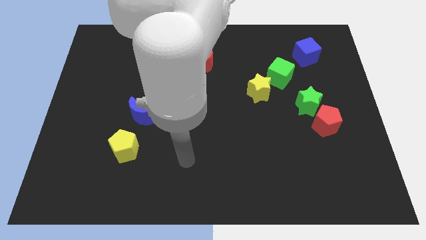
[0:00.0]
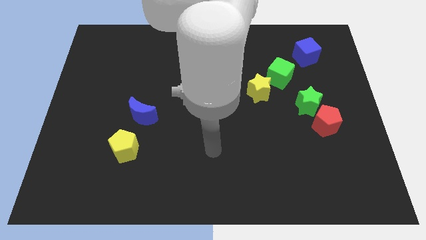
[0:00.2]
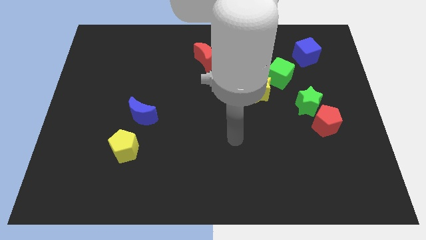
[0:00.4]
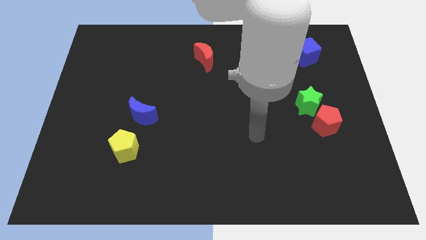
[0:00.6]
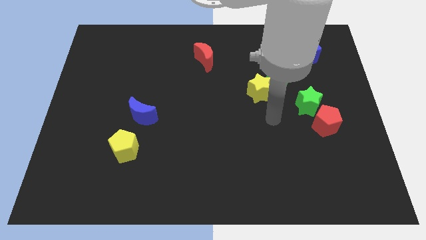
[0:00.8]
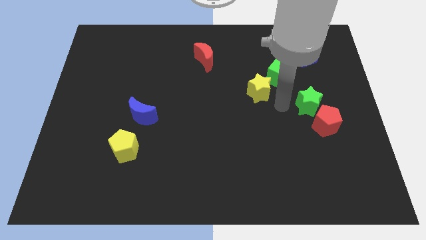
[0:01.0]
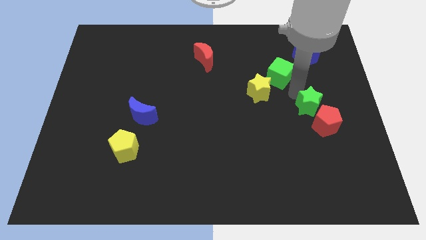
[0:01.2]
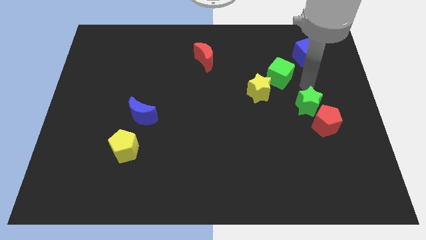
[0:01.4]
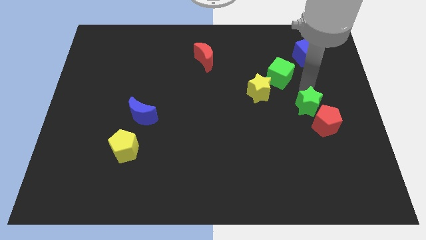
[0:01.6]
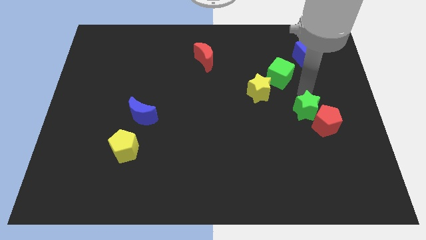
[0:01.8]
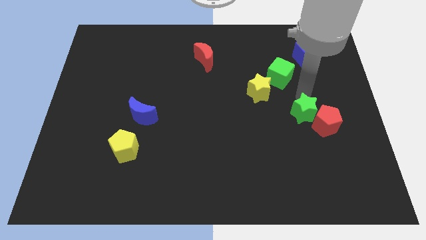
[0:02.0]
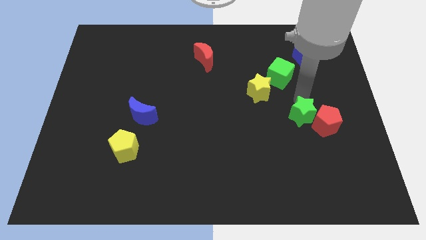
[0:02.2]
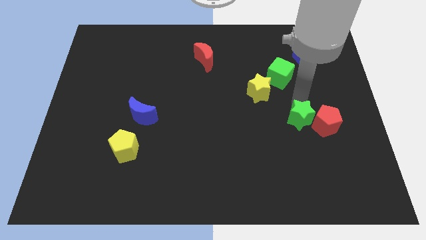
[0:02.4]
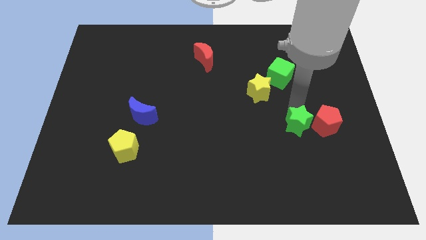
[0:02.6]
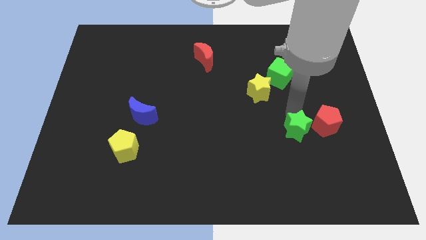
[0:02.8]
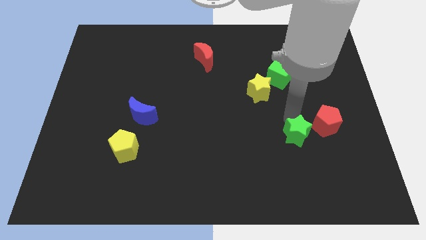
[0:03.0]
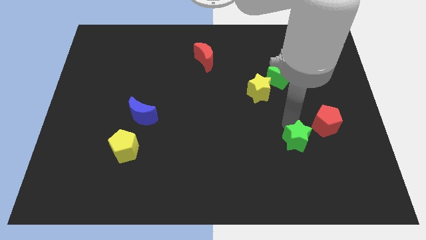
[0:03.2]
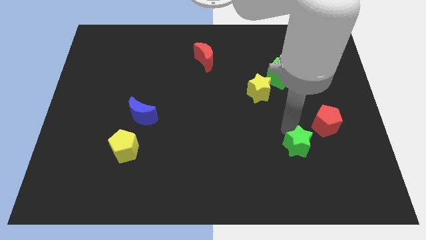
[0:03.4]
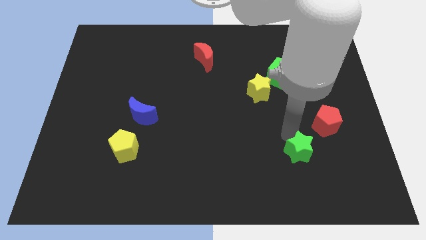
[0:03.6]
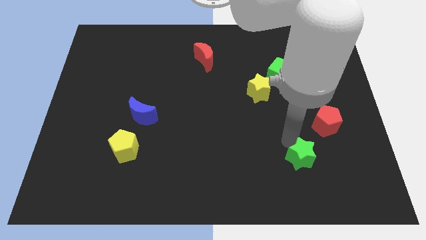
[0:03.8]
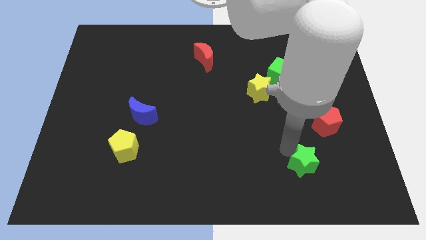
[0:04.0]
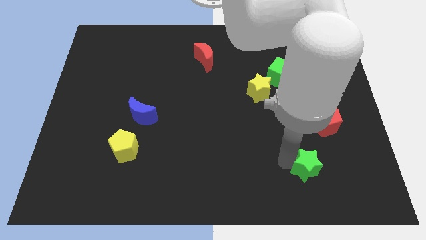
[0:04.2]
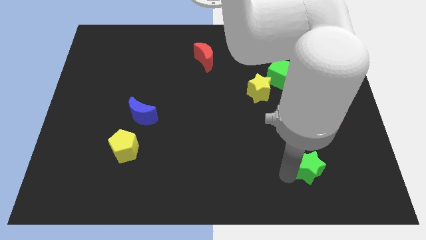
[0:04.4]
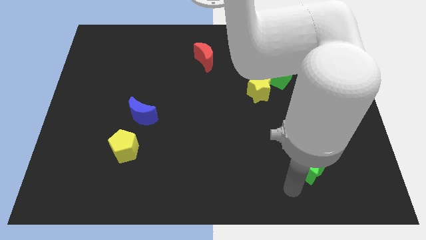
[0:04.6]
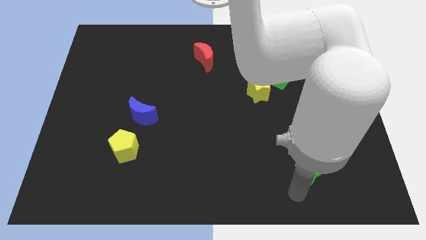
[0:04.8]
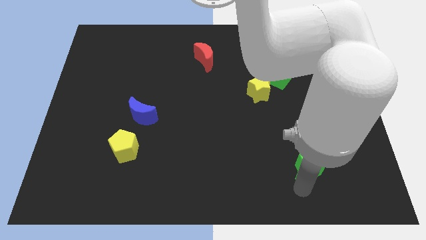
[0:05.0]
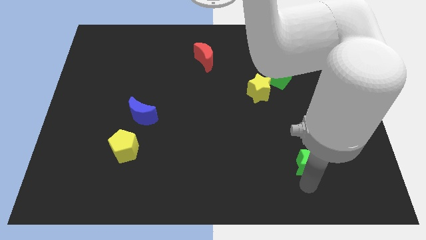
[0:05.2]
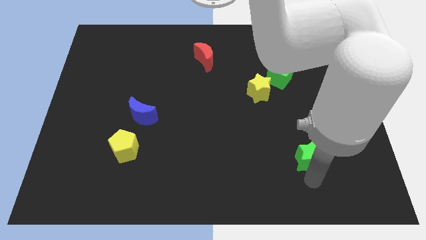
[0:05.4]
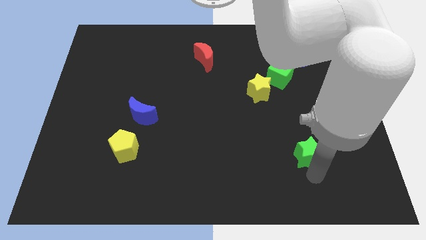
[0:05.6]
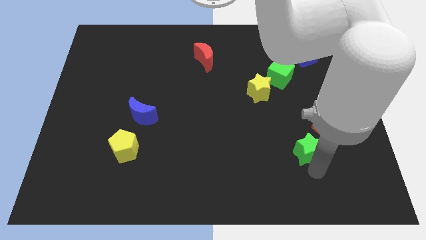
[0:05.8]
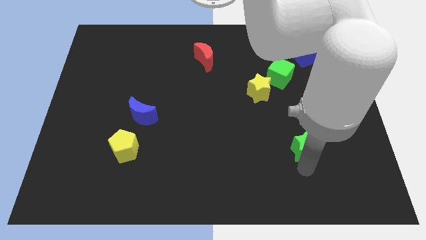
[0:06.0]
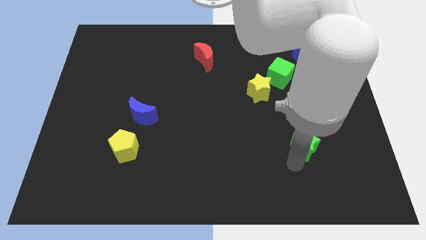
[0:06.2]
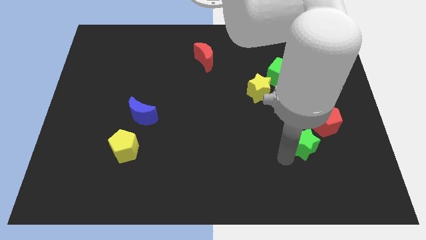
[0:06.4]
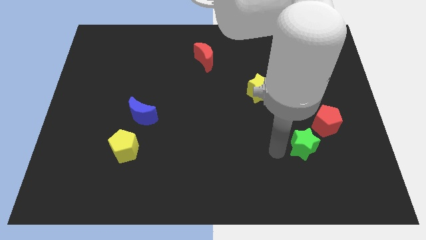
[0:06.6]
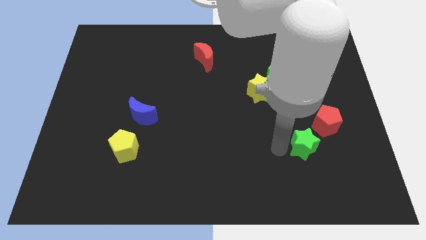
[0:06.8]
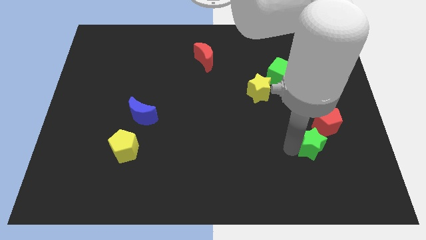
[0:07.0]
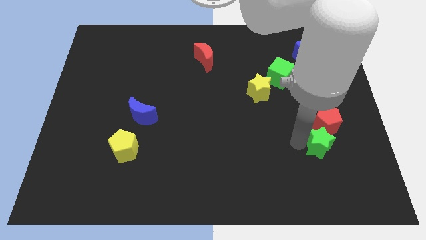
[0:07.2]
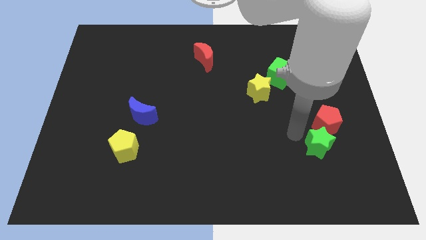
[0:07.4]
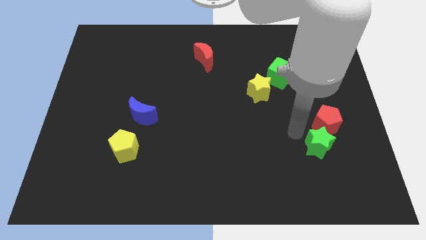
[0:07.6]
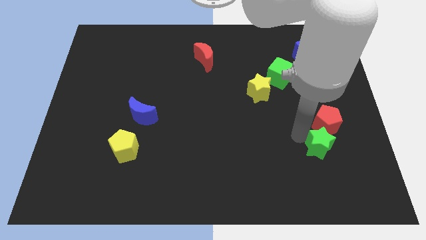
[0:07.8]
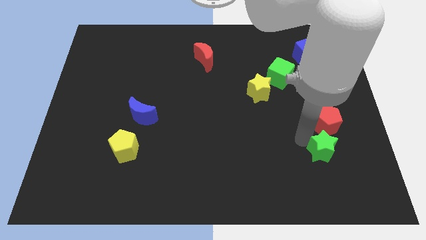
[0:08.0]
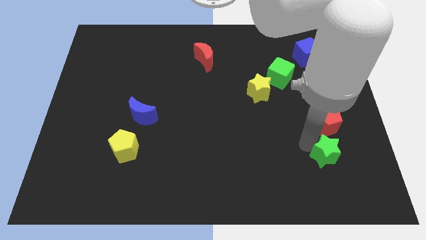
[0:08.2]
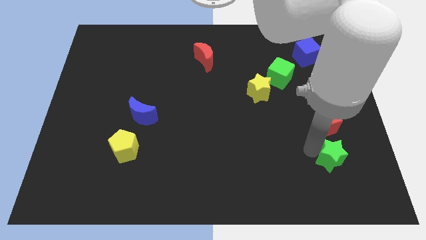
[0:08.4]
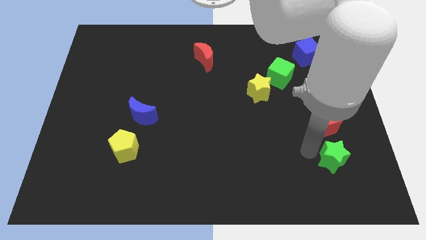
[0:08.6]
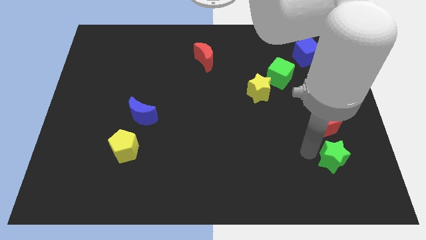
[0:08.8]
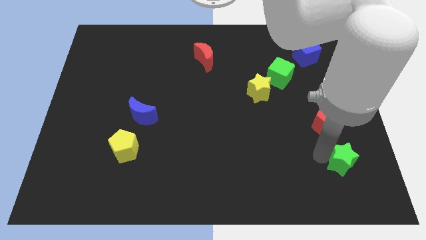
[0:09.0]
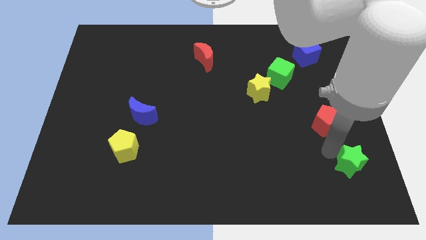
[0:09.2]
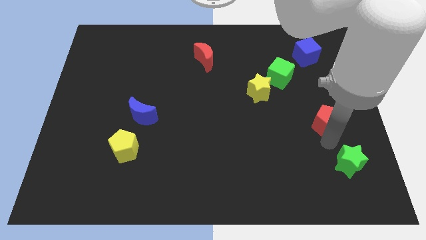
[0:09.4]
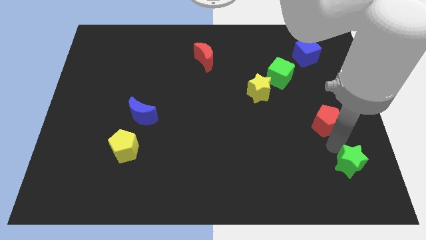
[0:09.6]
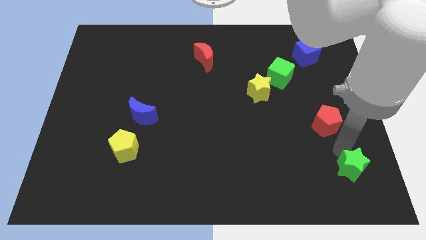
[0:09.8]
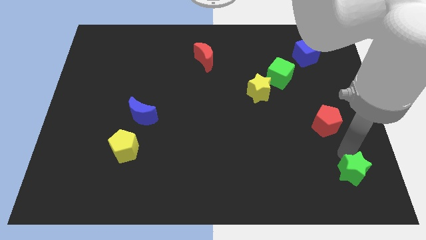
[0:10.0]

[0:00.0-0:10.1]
put the green star to the bottom right of the board

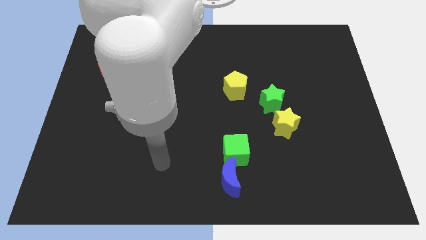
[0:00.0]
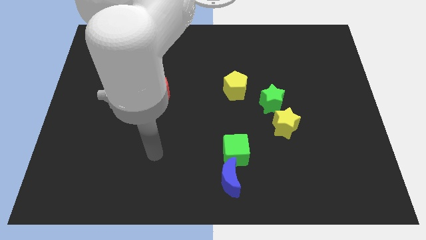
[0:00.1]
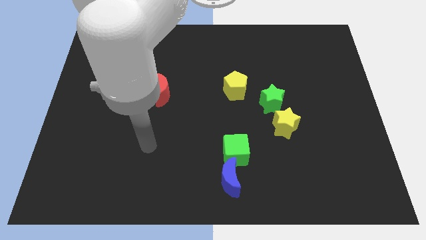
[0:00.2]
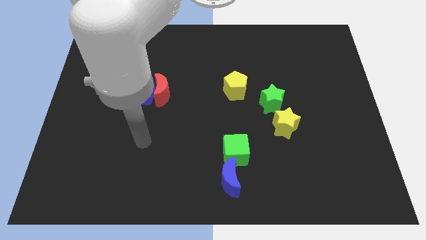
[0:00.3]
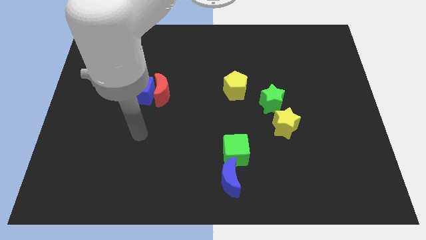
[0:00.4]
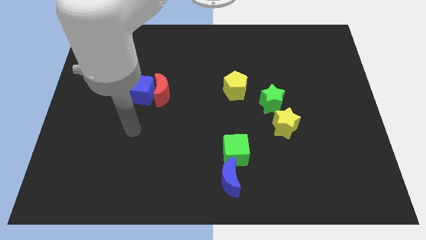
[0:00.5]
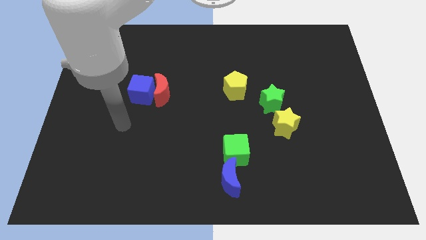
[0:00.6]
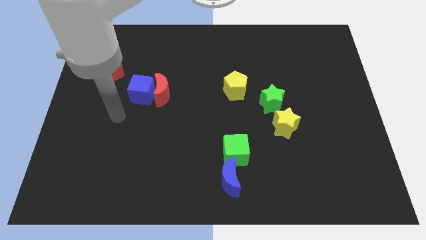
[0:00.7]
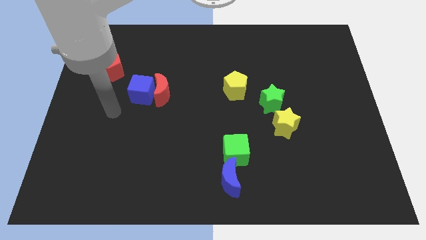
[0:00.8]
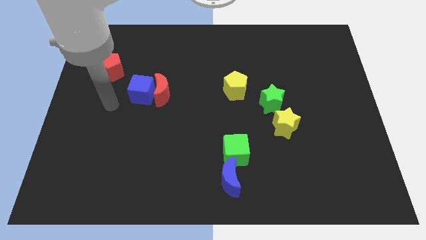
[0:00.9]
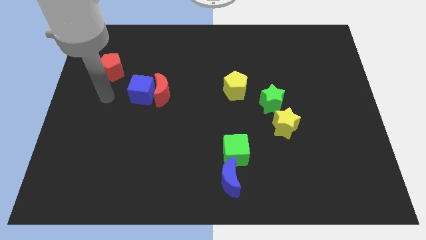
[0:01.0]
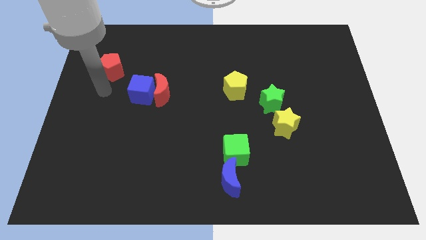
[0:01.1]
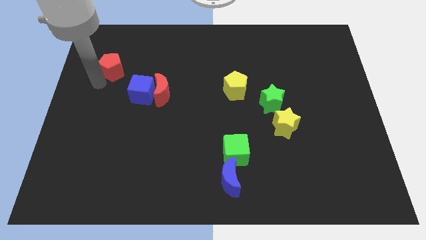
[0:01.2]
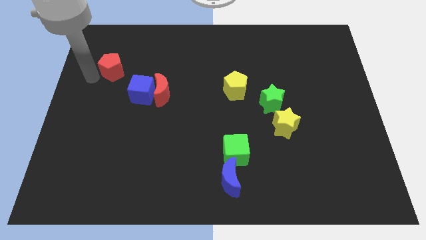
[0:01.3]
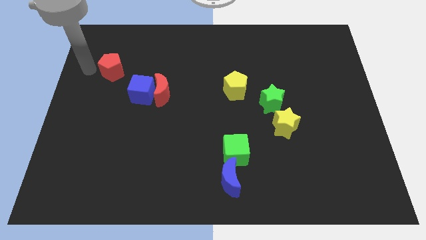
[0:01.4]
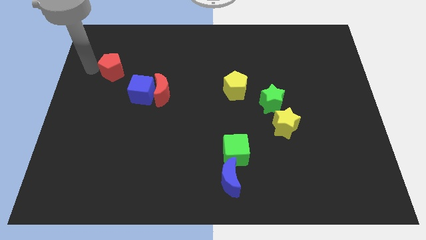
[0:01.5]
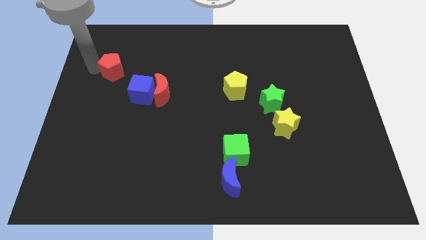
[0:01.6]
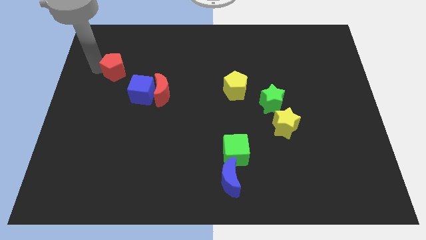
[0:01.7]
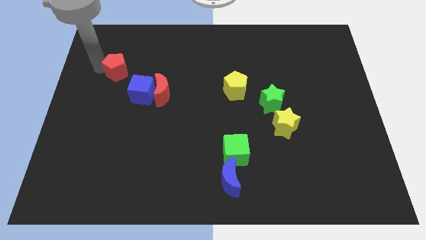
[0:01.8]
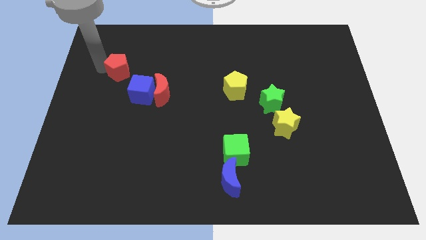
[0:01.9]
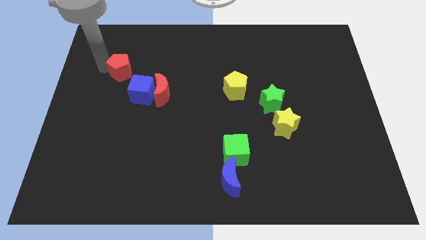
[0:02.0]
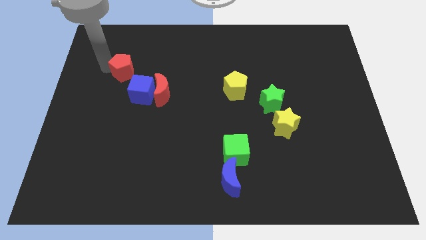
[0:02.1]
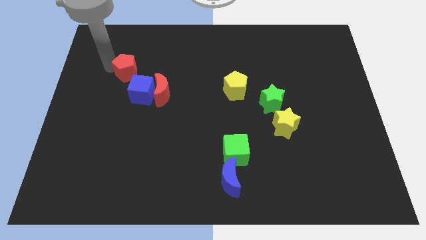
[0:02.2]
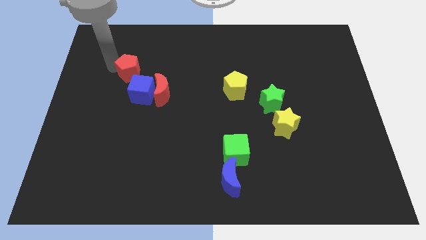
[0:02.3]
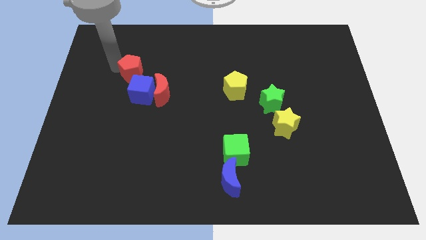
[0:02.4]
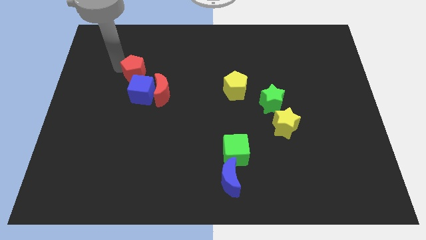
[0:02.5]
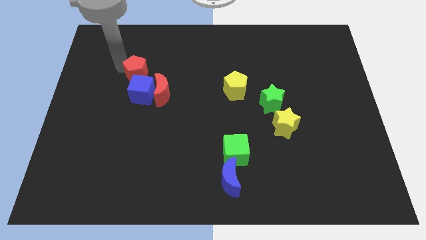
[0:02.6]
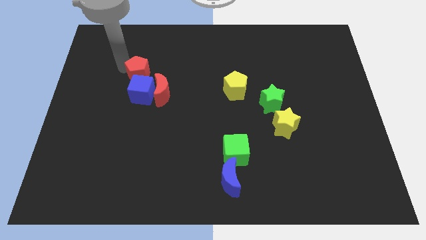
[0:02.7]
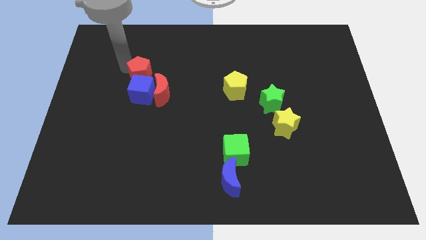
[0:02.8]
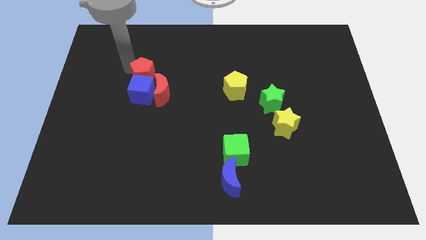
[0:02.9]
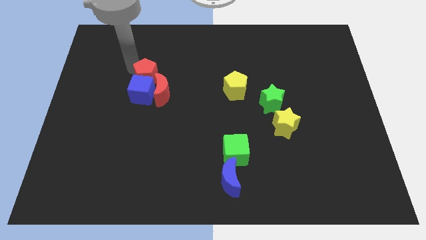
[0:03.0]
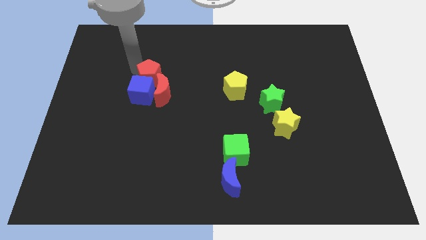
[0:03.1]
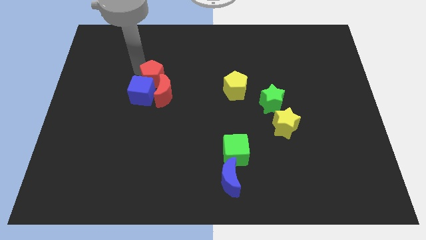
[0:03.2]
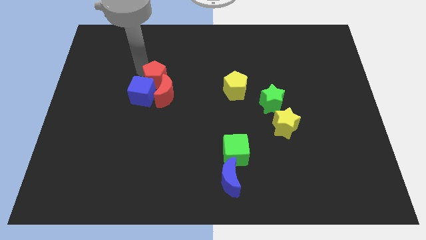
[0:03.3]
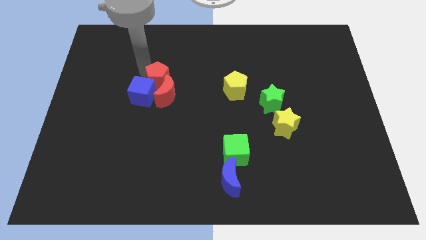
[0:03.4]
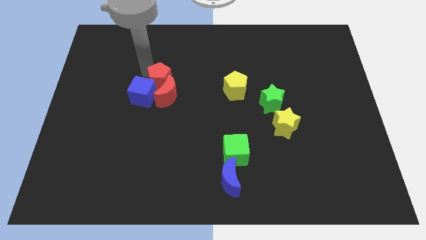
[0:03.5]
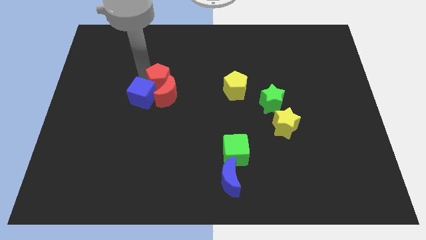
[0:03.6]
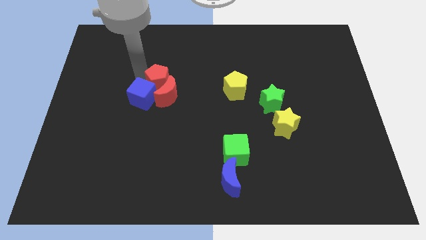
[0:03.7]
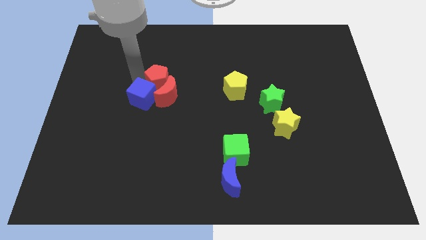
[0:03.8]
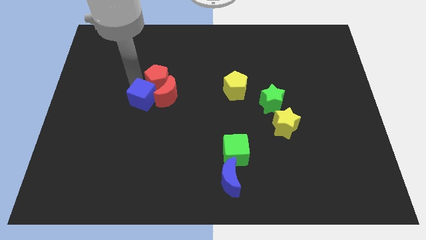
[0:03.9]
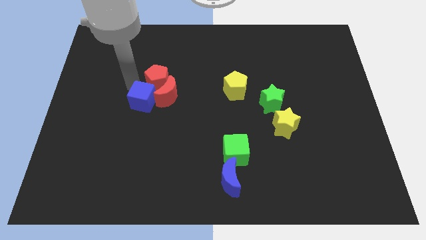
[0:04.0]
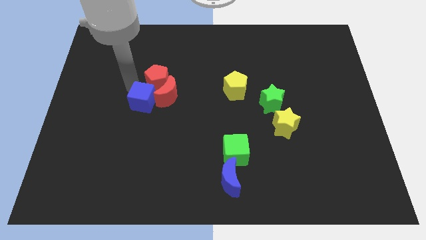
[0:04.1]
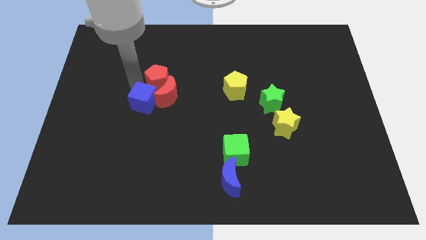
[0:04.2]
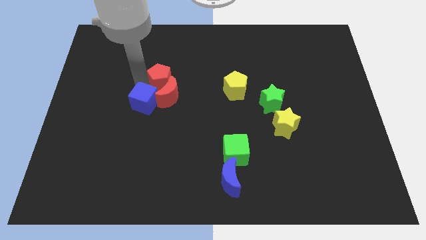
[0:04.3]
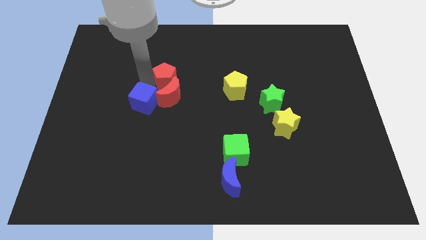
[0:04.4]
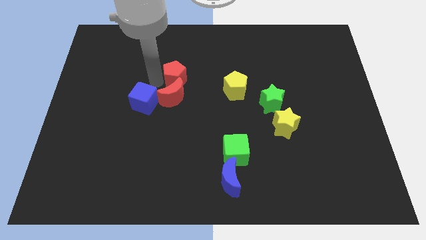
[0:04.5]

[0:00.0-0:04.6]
slide the red pentagon to the center
